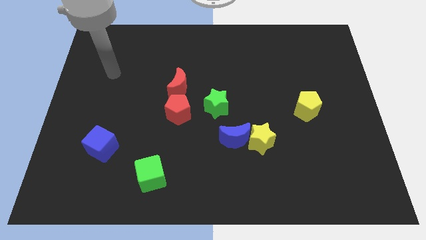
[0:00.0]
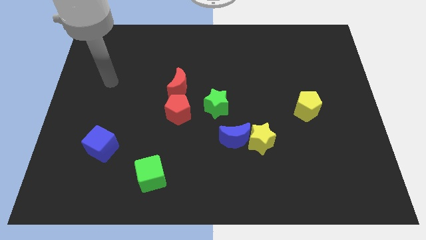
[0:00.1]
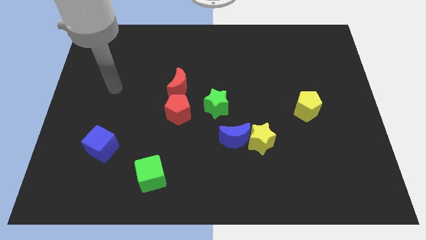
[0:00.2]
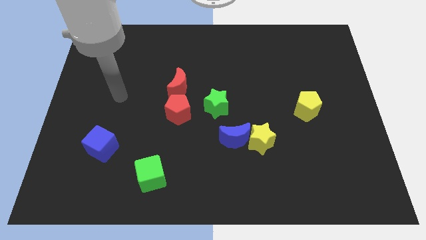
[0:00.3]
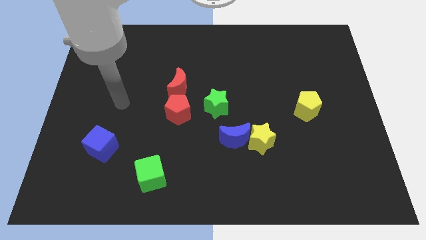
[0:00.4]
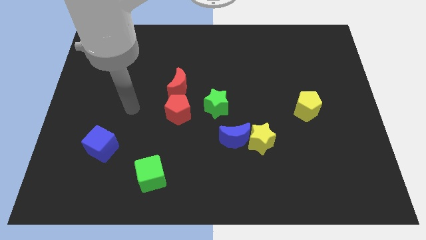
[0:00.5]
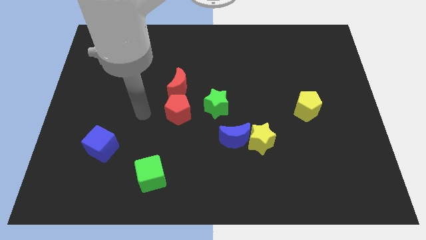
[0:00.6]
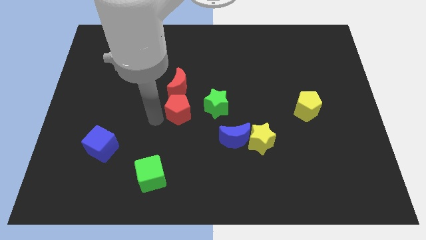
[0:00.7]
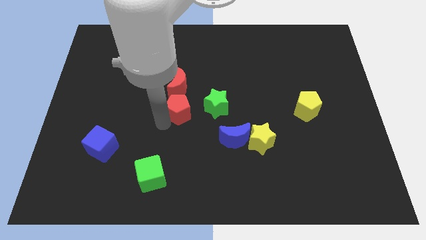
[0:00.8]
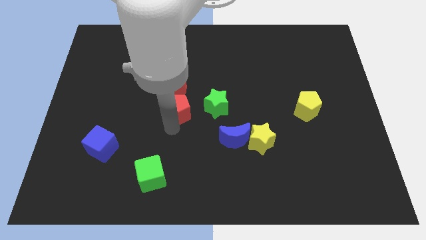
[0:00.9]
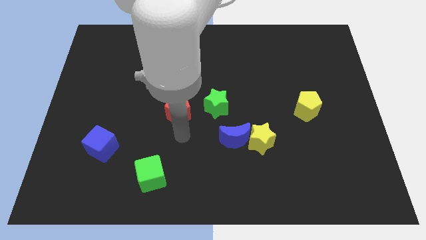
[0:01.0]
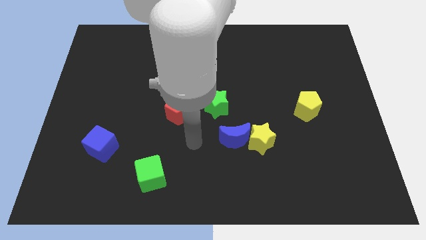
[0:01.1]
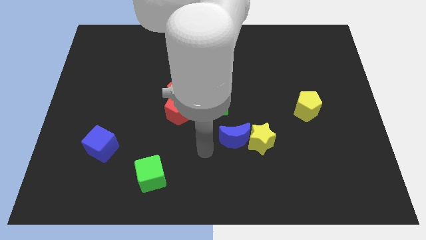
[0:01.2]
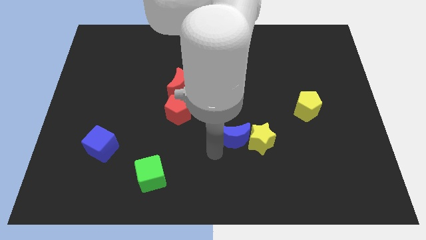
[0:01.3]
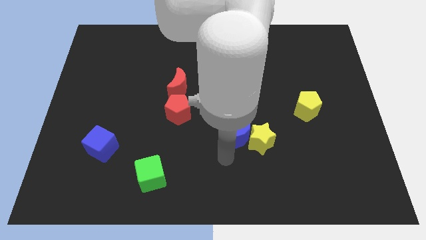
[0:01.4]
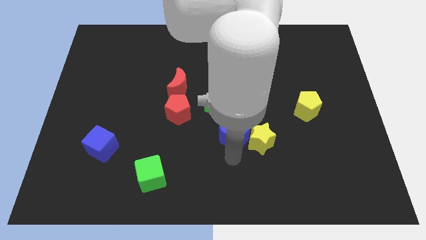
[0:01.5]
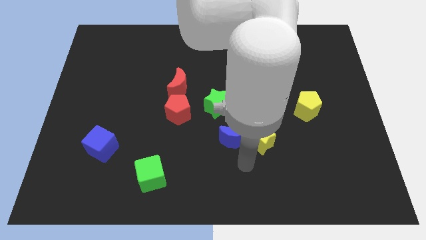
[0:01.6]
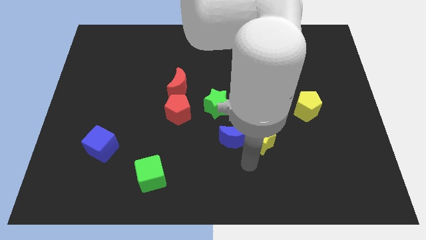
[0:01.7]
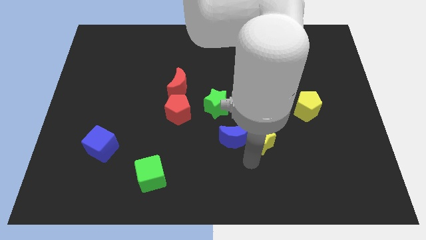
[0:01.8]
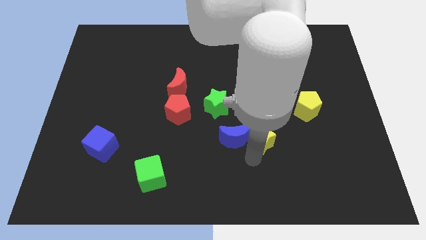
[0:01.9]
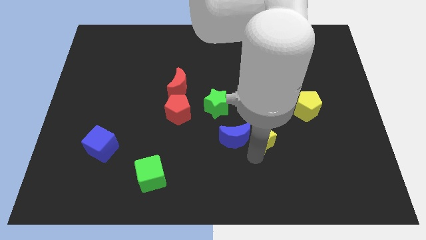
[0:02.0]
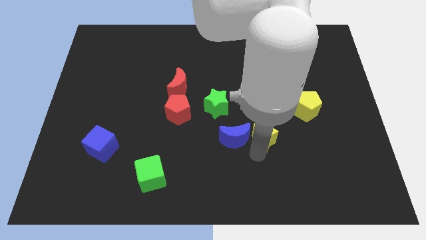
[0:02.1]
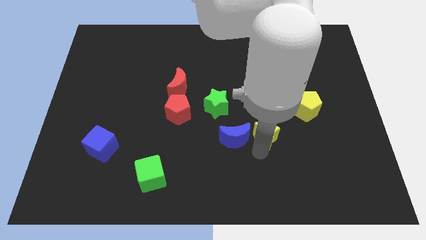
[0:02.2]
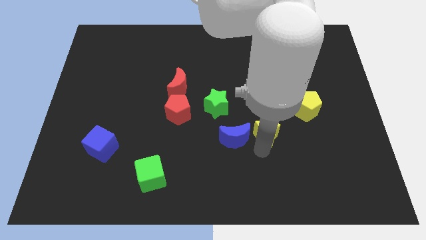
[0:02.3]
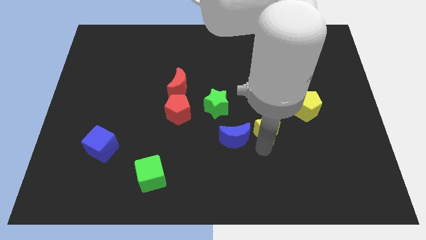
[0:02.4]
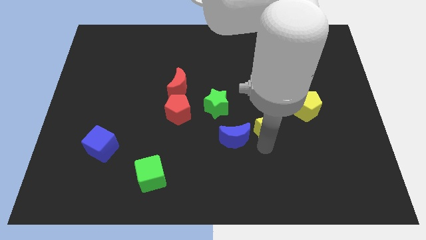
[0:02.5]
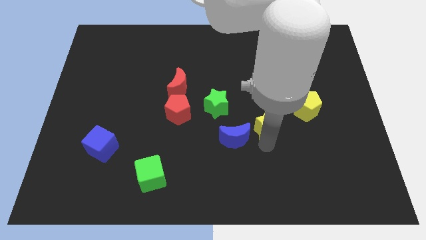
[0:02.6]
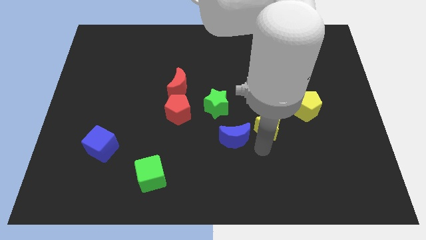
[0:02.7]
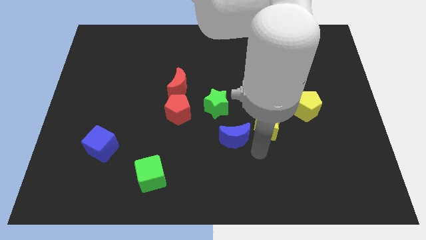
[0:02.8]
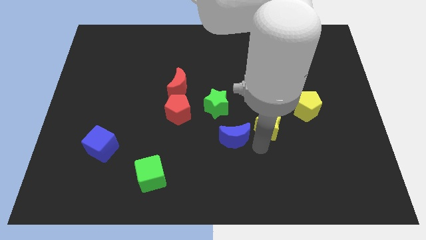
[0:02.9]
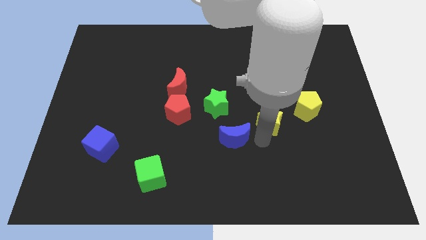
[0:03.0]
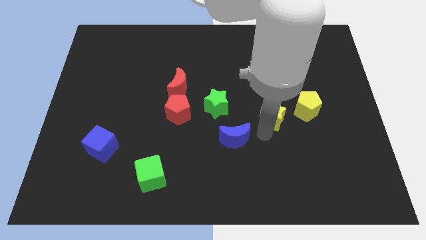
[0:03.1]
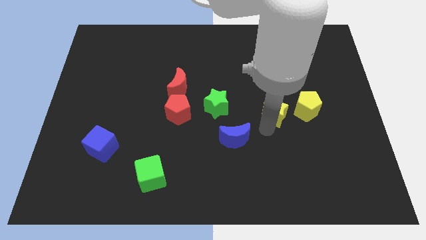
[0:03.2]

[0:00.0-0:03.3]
slide the yellow star diagonally up and right a little

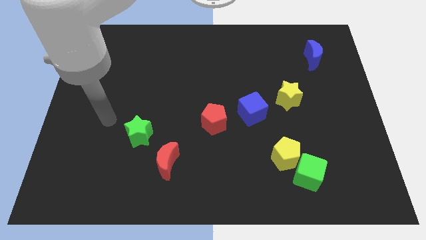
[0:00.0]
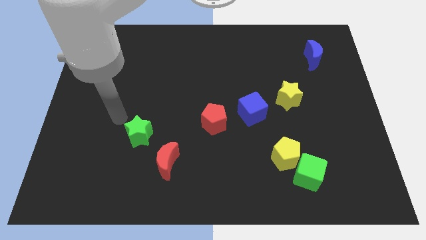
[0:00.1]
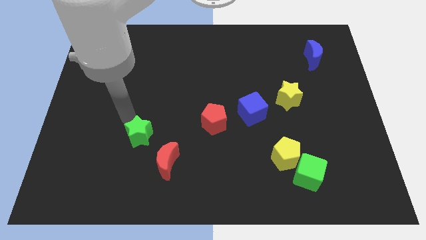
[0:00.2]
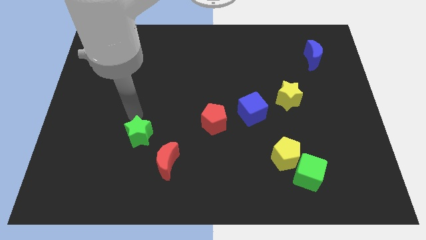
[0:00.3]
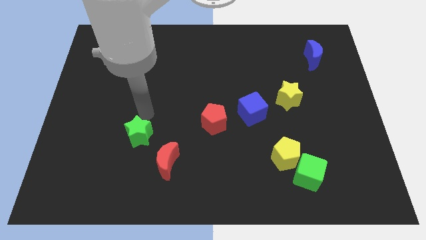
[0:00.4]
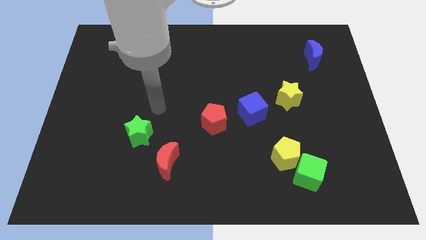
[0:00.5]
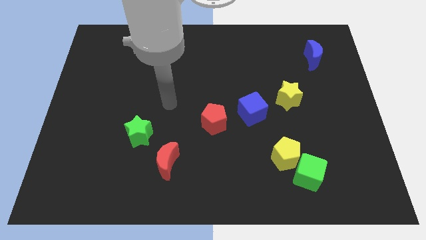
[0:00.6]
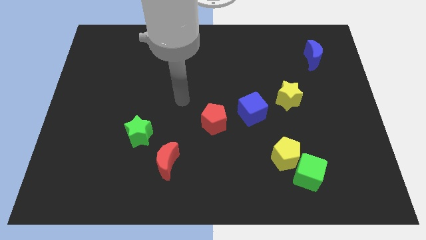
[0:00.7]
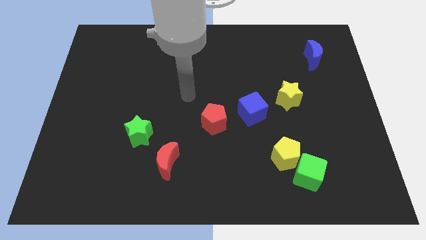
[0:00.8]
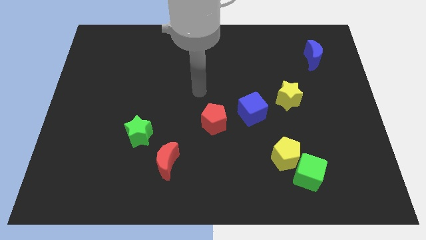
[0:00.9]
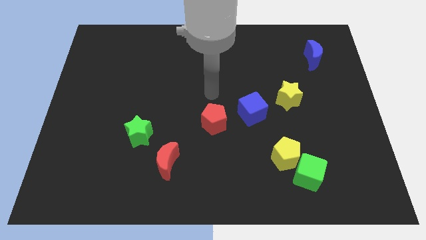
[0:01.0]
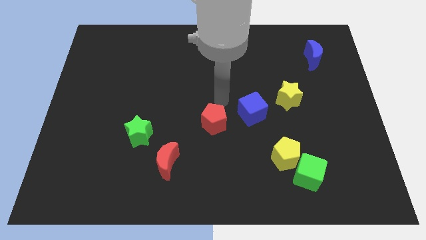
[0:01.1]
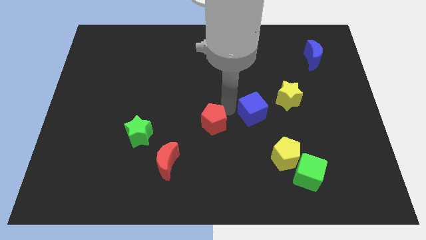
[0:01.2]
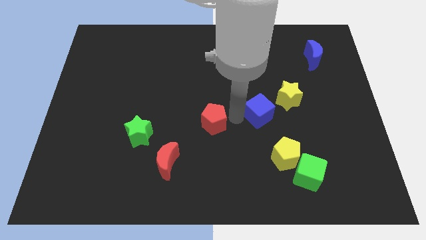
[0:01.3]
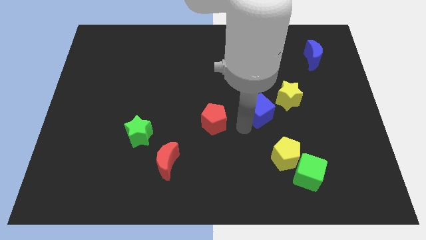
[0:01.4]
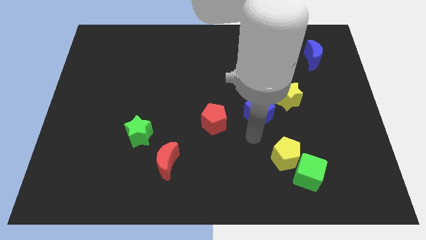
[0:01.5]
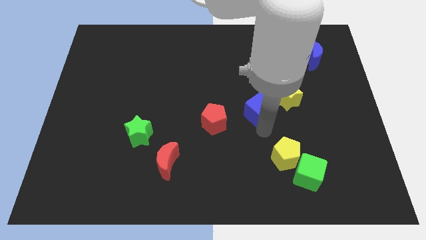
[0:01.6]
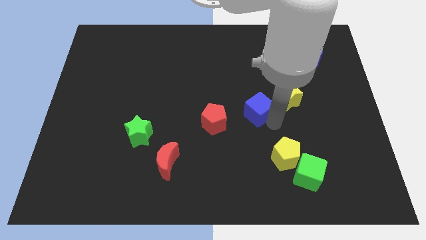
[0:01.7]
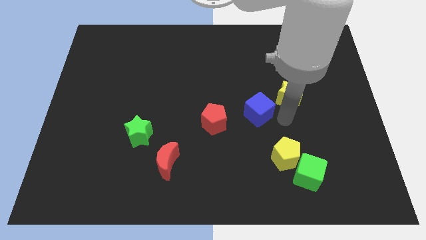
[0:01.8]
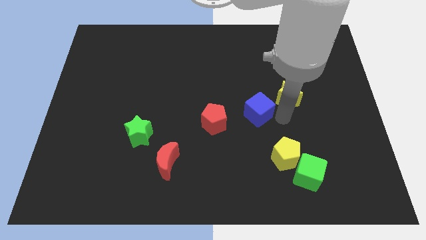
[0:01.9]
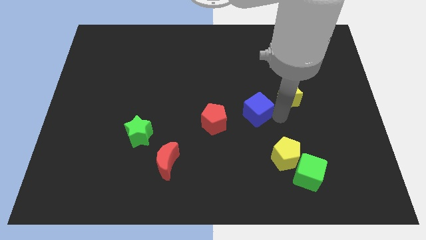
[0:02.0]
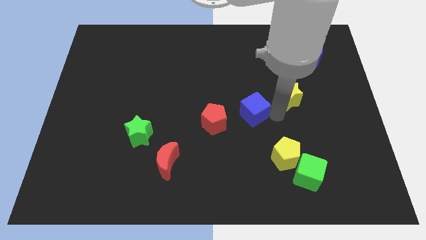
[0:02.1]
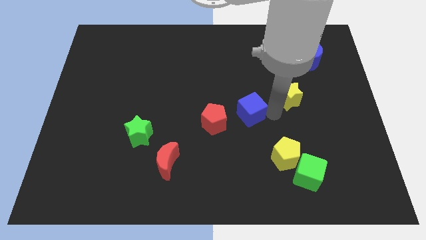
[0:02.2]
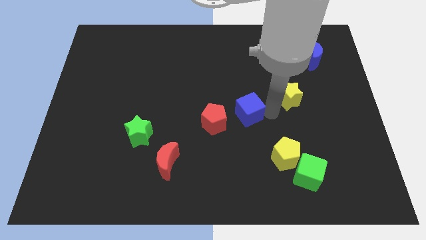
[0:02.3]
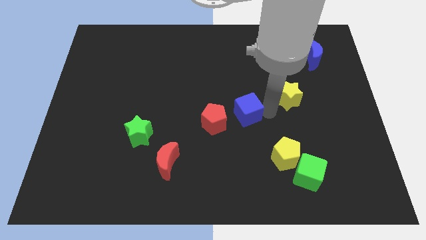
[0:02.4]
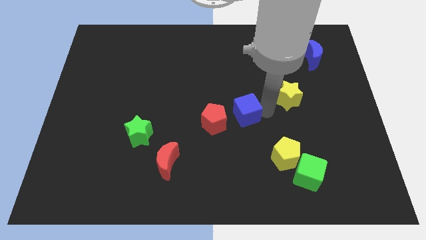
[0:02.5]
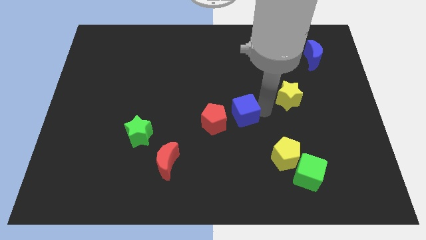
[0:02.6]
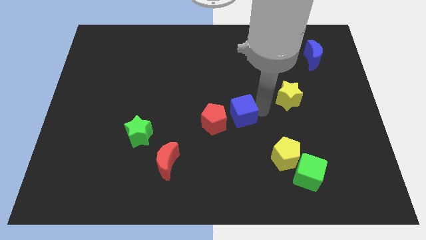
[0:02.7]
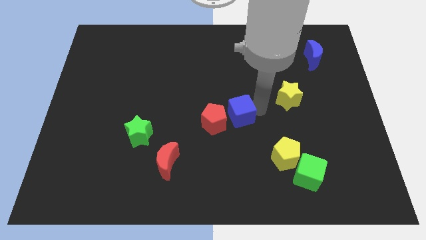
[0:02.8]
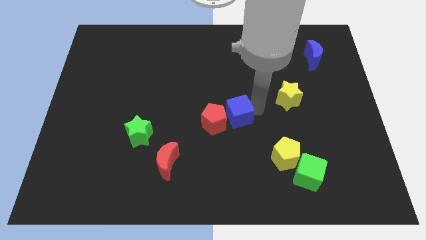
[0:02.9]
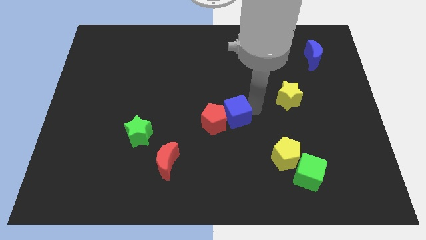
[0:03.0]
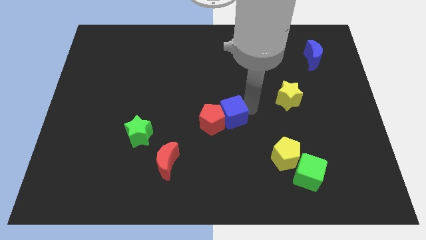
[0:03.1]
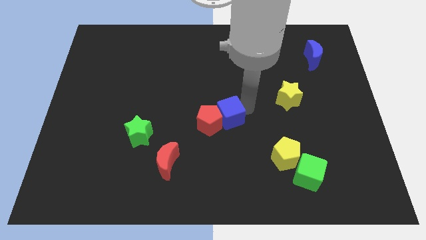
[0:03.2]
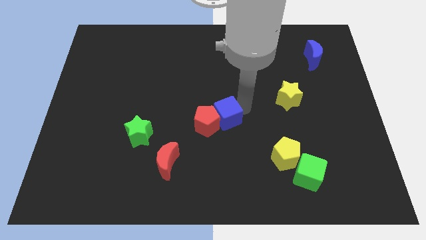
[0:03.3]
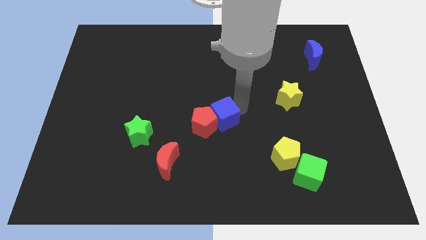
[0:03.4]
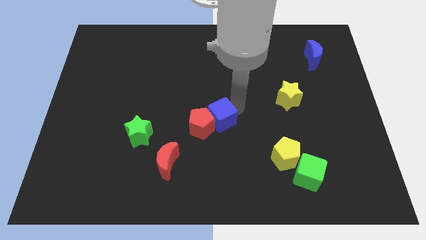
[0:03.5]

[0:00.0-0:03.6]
push the blue cube somewhat to the left

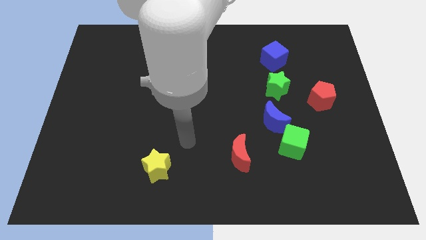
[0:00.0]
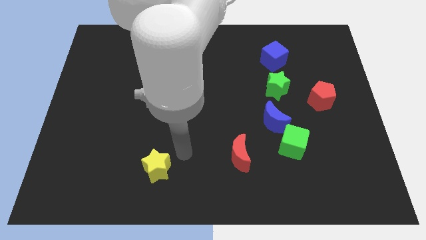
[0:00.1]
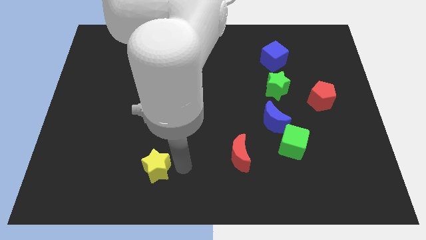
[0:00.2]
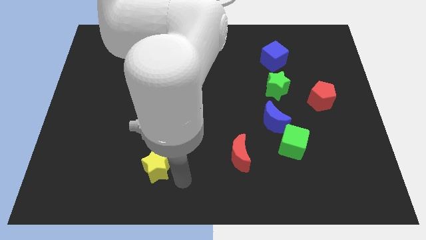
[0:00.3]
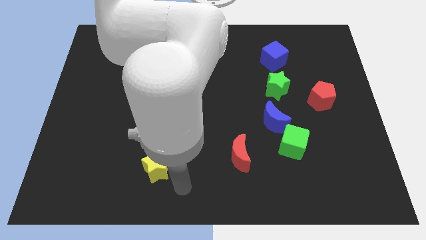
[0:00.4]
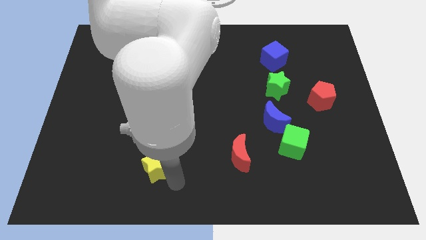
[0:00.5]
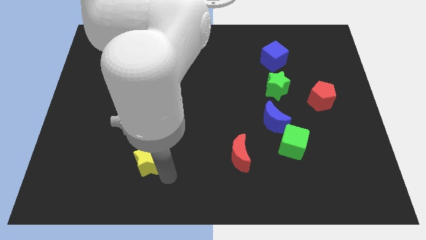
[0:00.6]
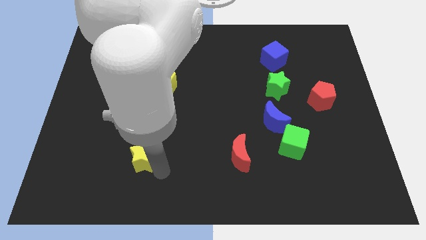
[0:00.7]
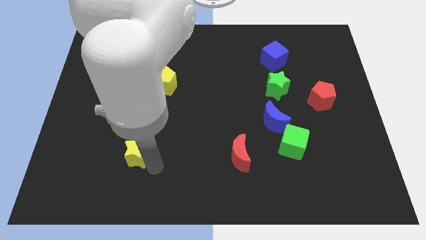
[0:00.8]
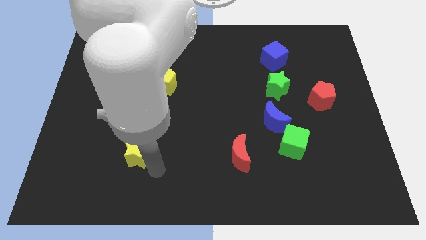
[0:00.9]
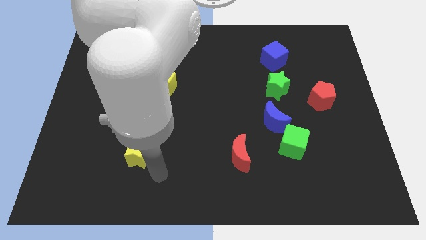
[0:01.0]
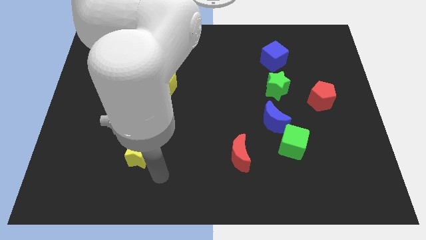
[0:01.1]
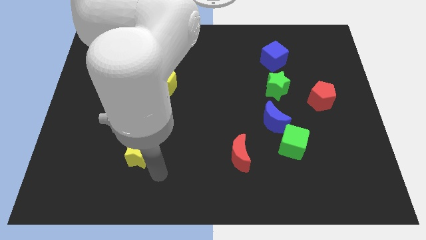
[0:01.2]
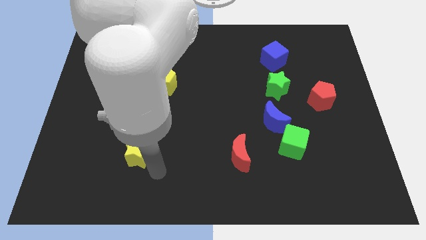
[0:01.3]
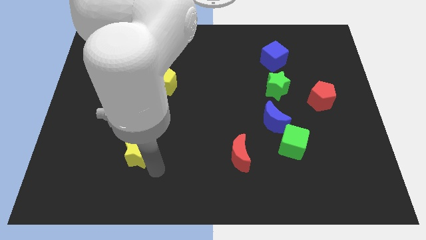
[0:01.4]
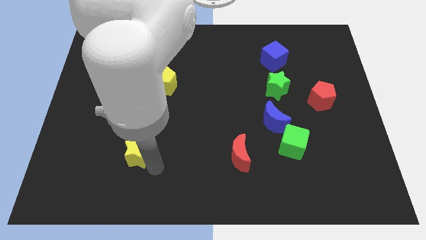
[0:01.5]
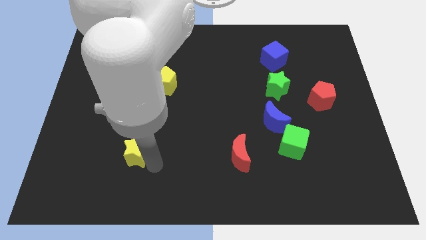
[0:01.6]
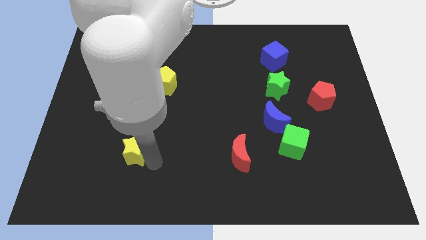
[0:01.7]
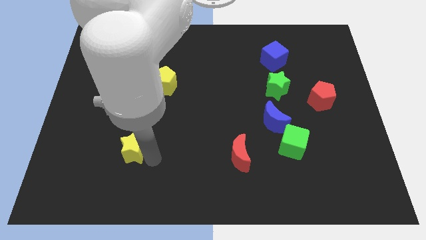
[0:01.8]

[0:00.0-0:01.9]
move the yellow star a little bit up and to the left diagonally
